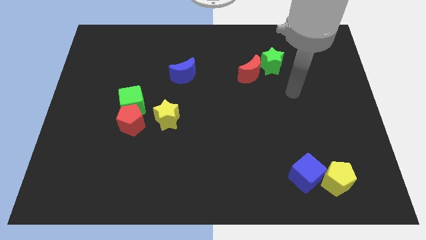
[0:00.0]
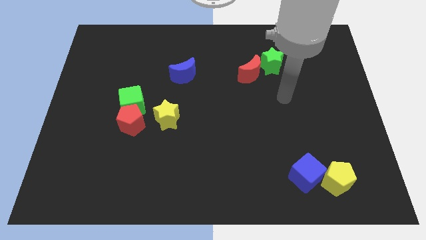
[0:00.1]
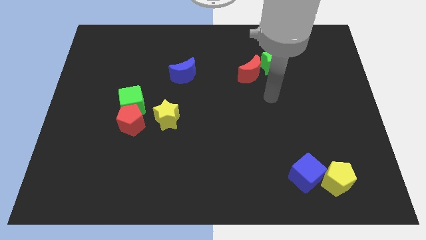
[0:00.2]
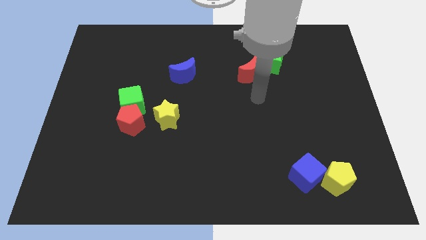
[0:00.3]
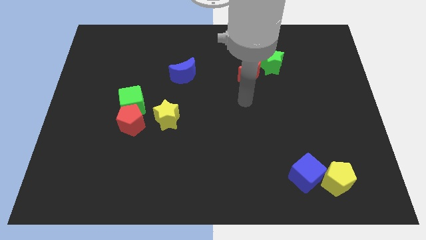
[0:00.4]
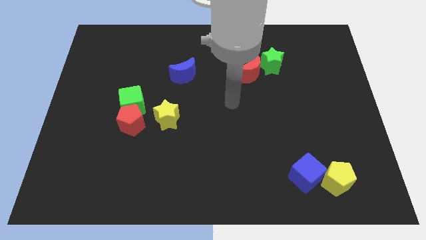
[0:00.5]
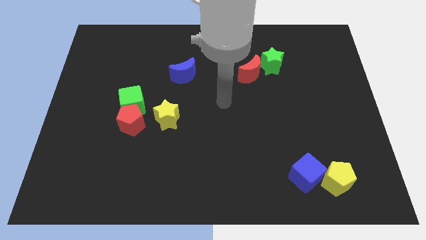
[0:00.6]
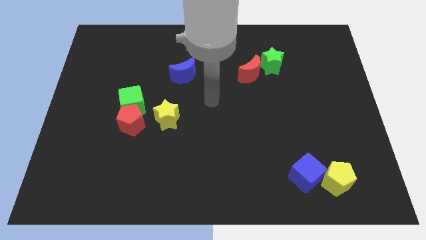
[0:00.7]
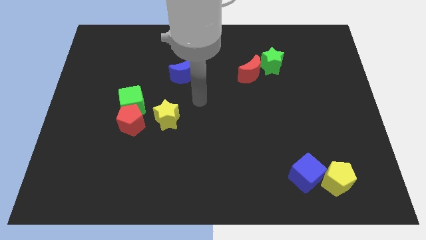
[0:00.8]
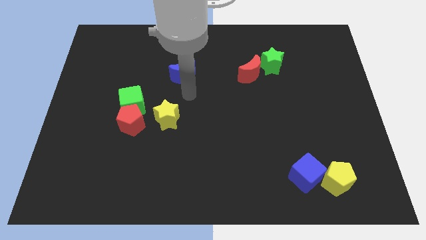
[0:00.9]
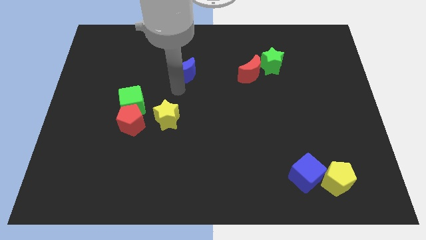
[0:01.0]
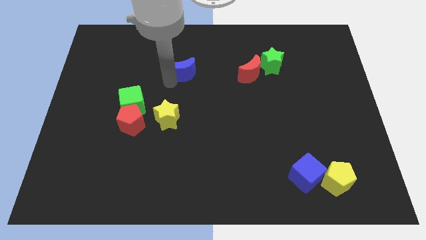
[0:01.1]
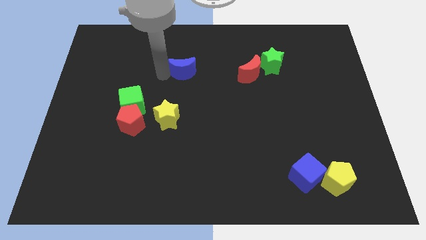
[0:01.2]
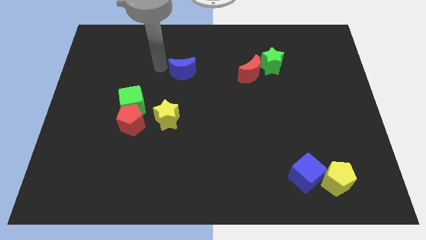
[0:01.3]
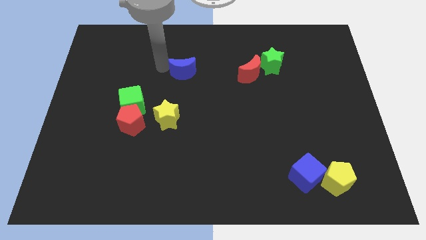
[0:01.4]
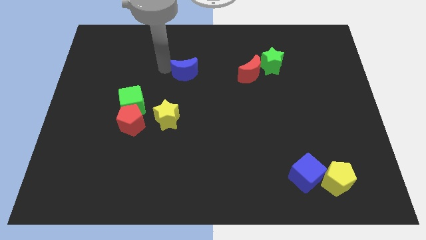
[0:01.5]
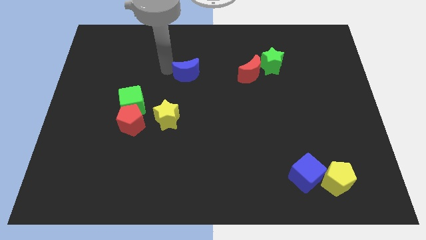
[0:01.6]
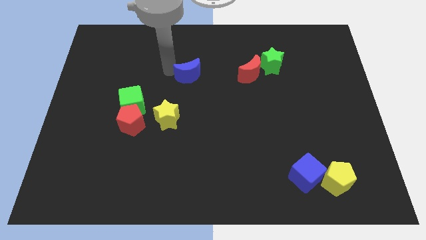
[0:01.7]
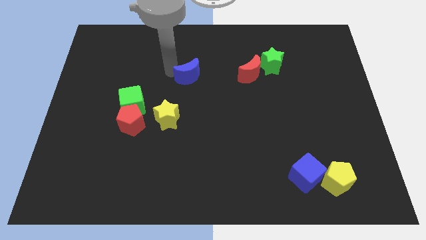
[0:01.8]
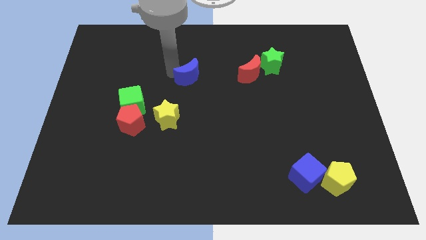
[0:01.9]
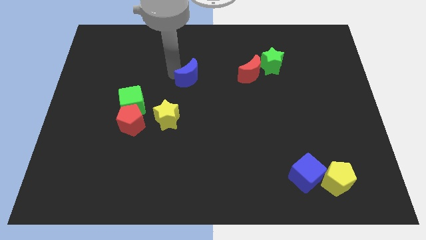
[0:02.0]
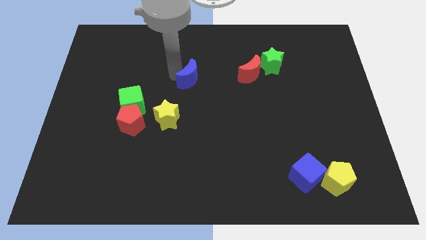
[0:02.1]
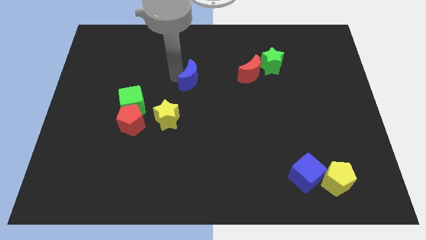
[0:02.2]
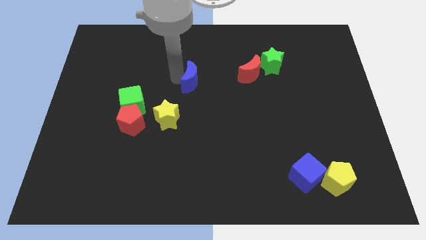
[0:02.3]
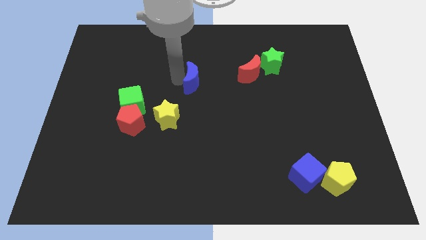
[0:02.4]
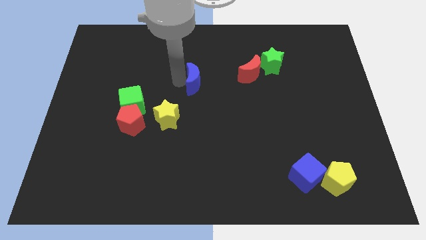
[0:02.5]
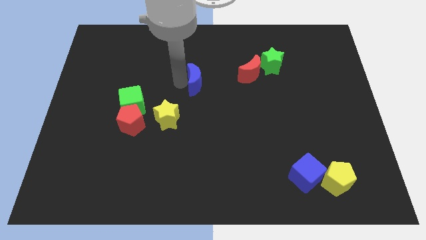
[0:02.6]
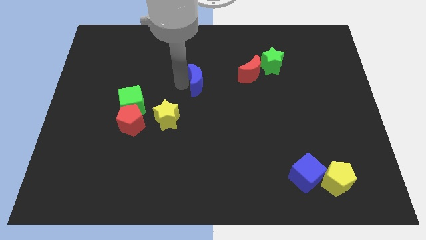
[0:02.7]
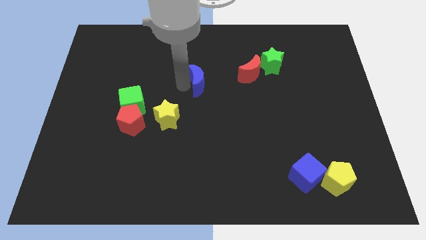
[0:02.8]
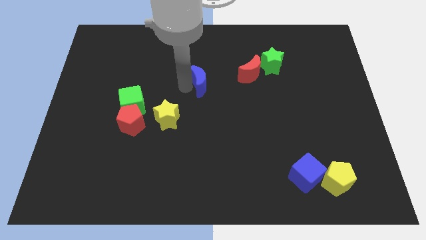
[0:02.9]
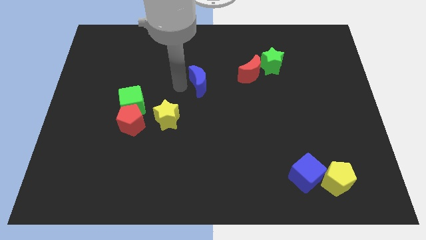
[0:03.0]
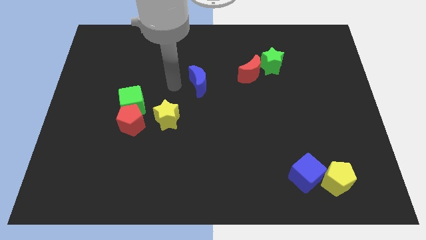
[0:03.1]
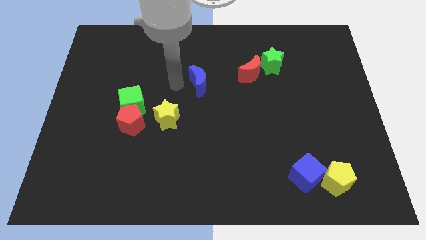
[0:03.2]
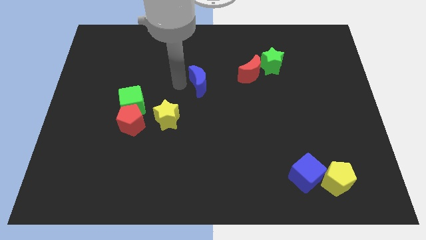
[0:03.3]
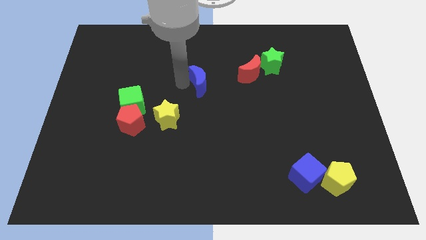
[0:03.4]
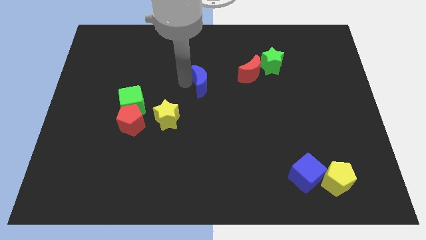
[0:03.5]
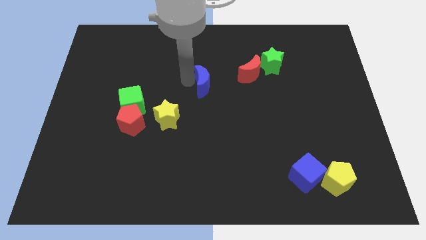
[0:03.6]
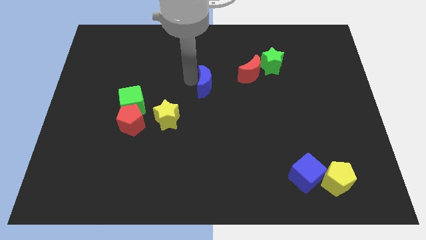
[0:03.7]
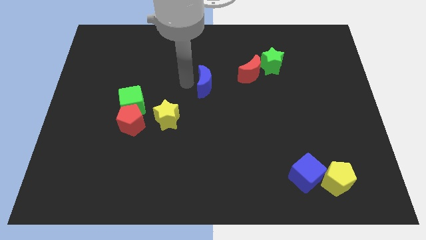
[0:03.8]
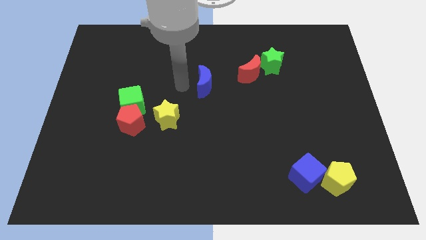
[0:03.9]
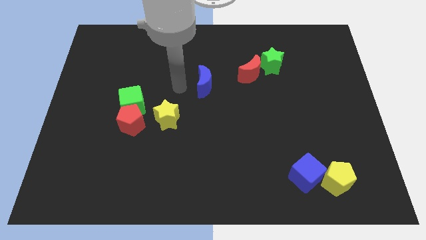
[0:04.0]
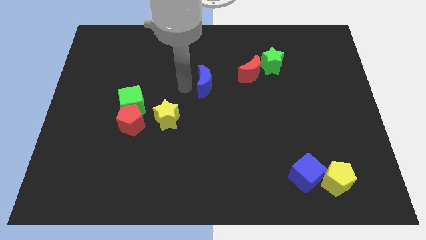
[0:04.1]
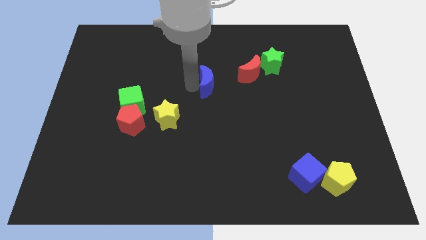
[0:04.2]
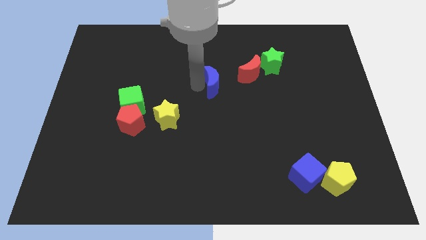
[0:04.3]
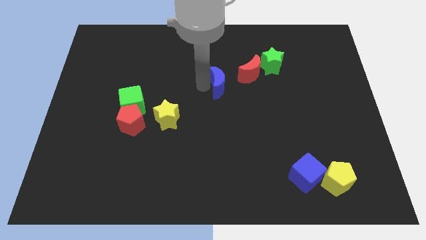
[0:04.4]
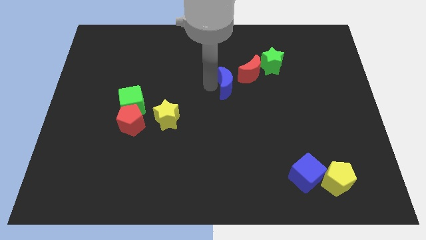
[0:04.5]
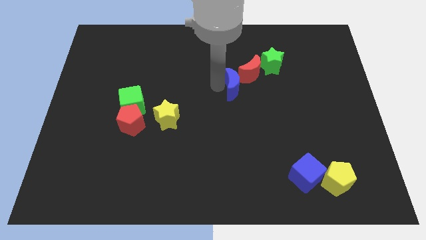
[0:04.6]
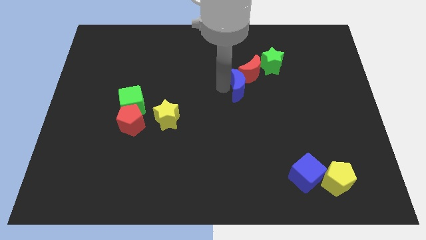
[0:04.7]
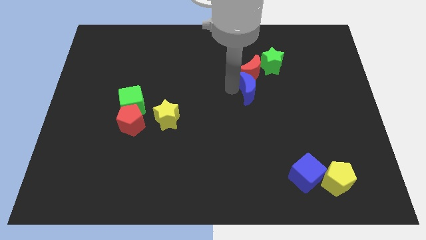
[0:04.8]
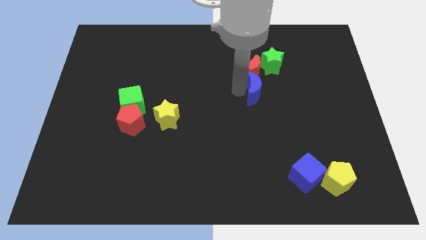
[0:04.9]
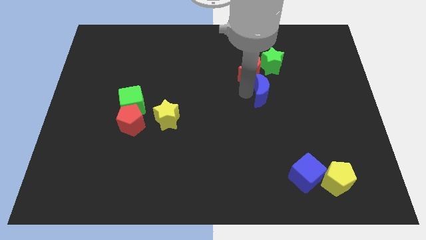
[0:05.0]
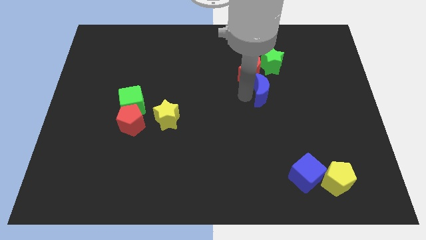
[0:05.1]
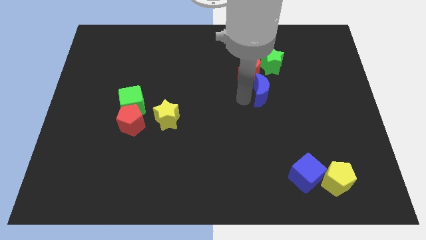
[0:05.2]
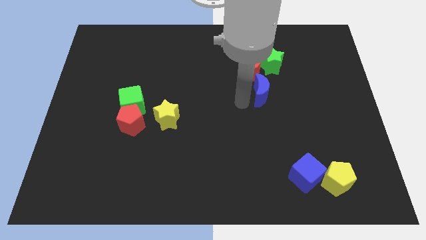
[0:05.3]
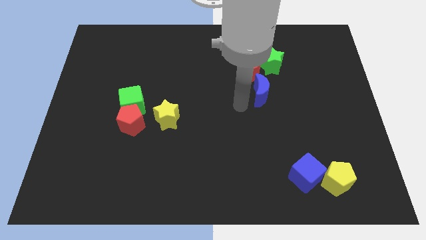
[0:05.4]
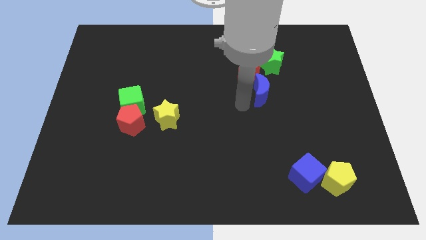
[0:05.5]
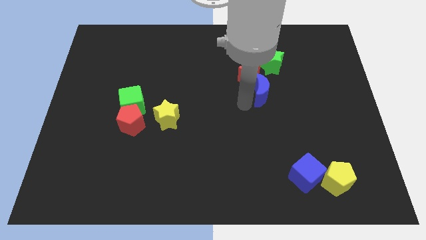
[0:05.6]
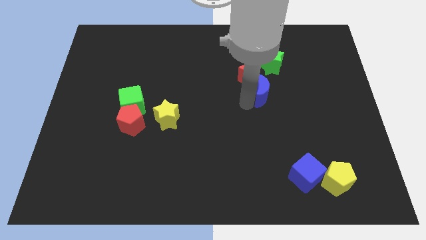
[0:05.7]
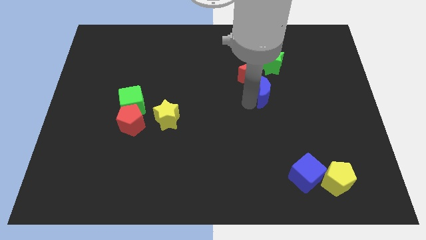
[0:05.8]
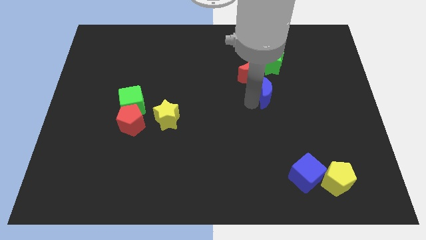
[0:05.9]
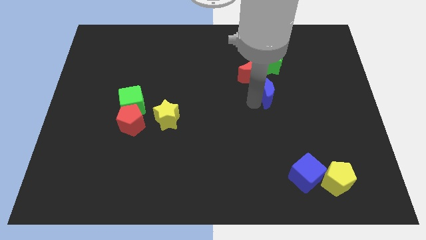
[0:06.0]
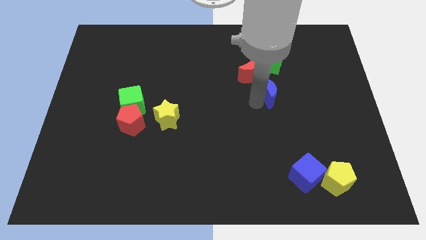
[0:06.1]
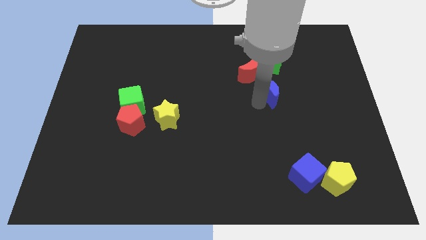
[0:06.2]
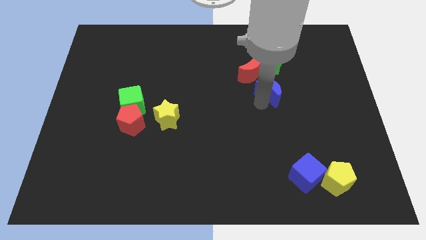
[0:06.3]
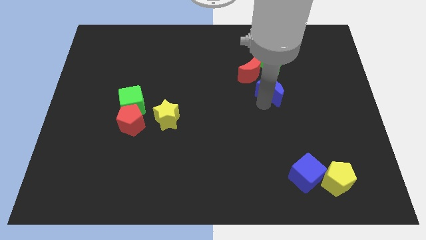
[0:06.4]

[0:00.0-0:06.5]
slide the blue moon right

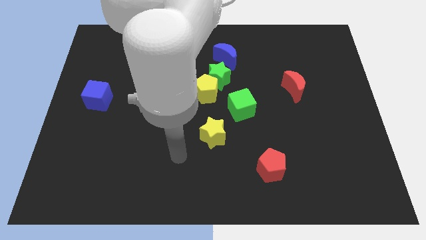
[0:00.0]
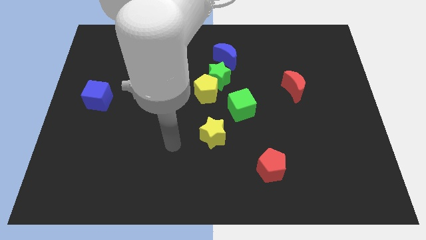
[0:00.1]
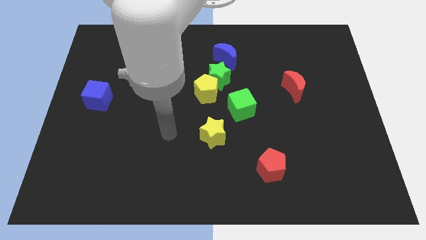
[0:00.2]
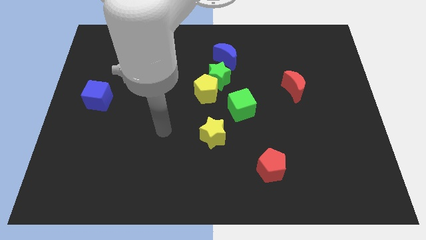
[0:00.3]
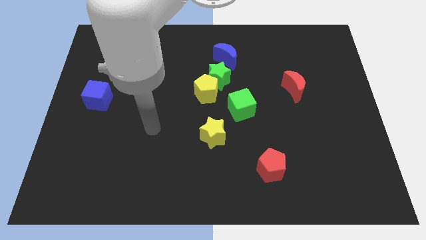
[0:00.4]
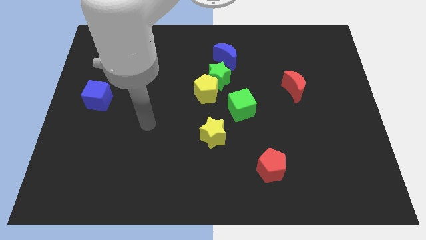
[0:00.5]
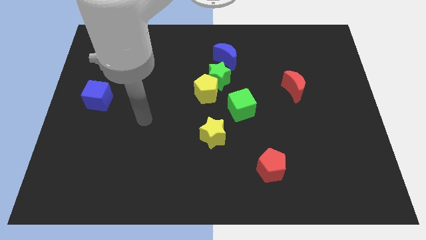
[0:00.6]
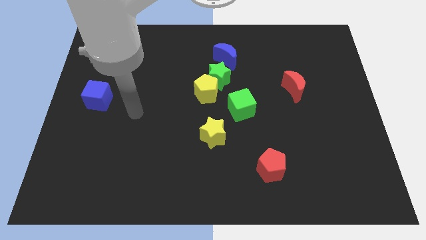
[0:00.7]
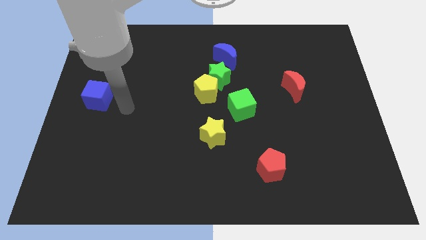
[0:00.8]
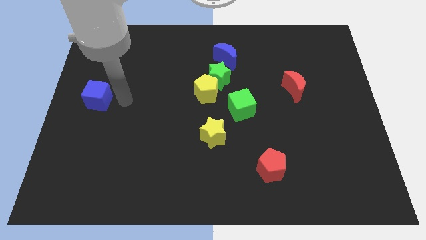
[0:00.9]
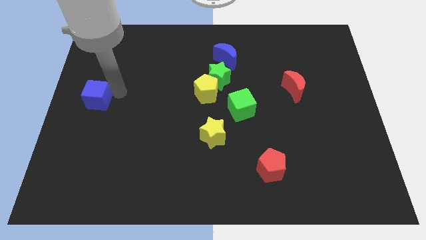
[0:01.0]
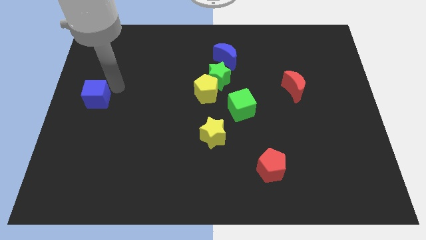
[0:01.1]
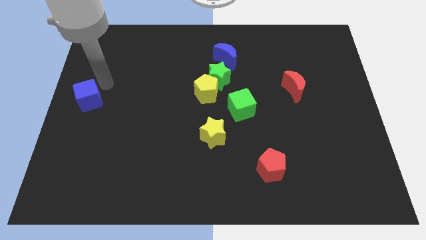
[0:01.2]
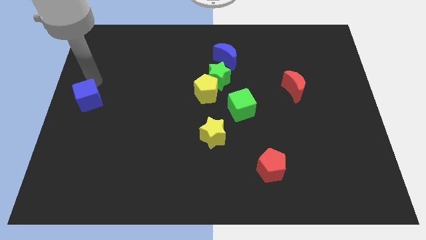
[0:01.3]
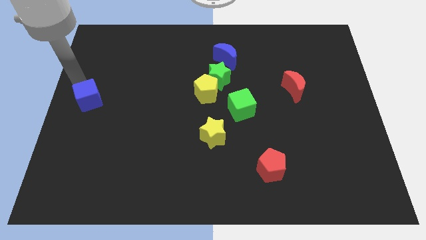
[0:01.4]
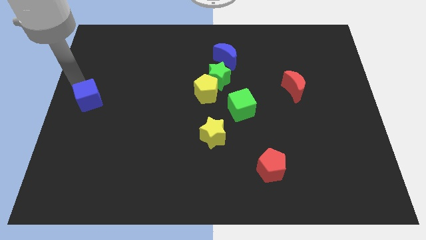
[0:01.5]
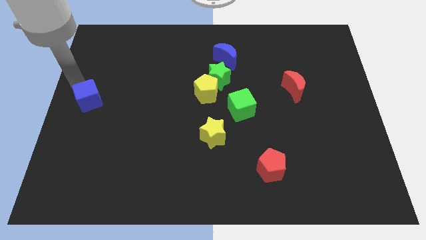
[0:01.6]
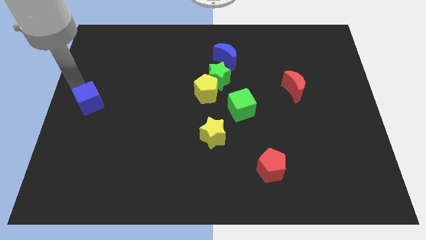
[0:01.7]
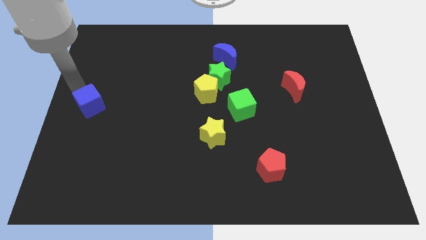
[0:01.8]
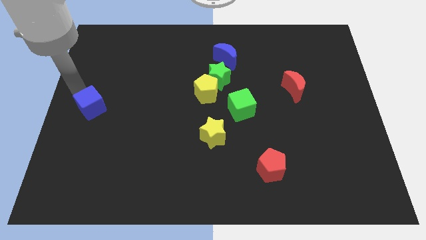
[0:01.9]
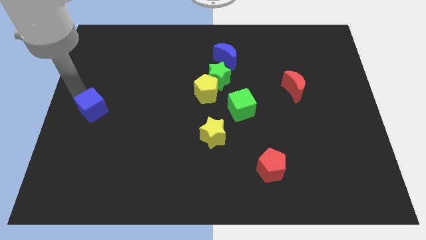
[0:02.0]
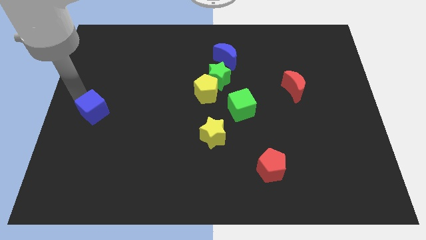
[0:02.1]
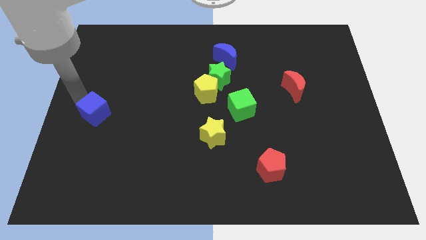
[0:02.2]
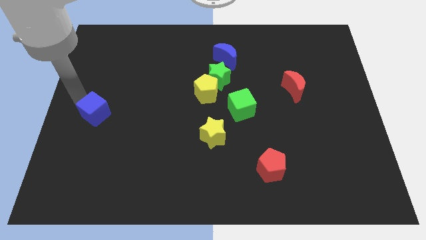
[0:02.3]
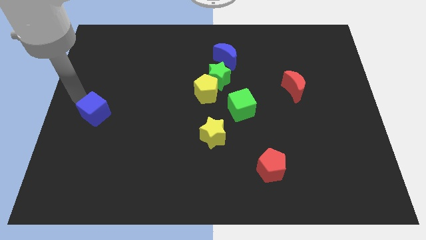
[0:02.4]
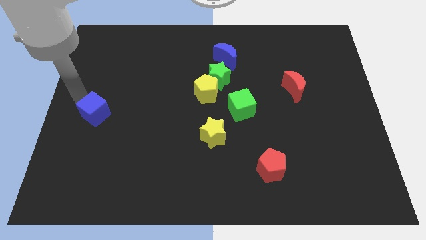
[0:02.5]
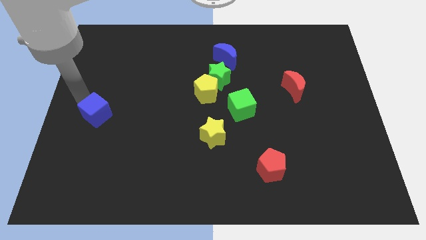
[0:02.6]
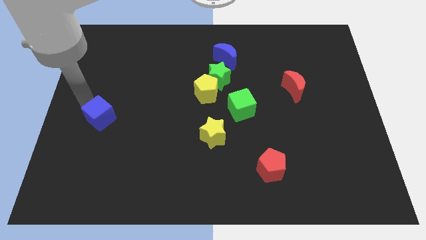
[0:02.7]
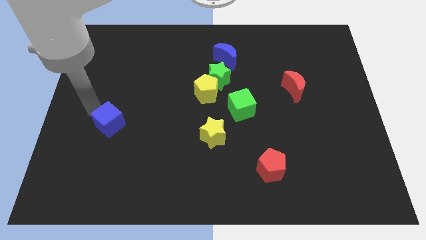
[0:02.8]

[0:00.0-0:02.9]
push the blue cube somewhat downwards and then right
